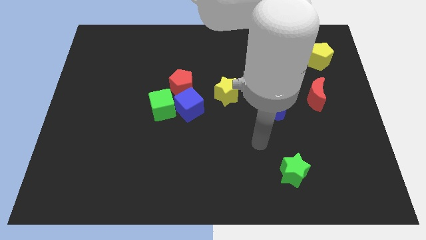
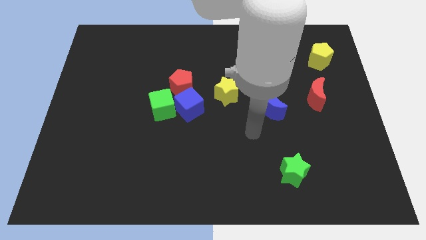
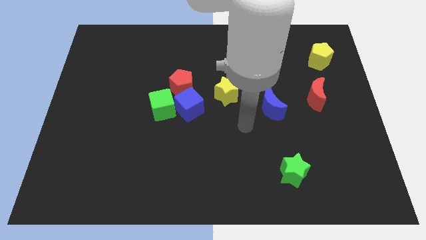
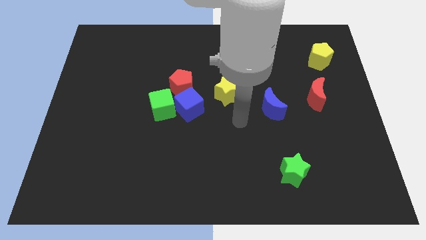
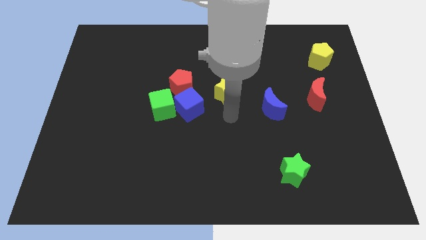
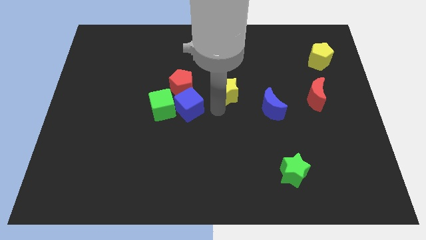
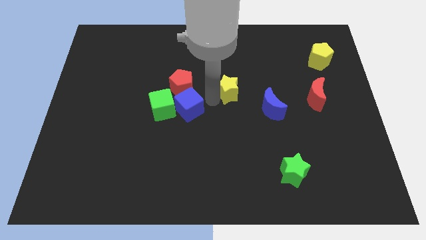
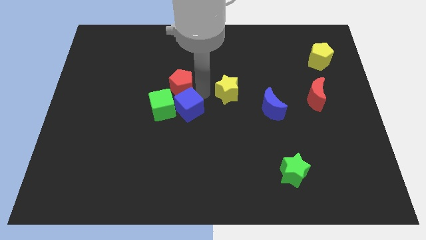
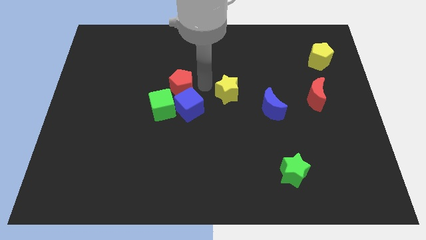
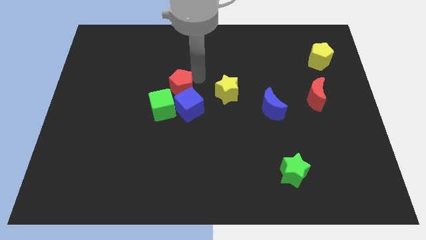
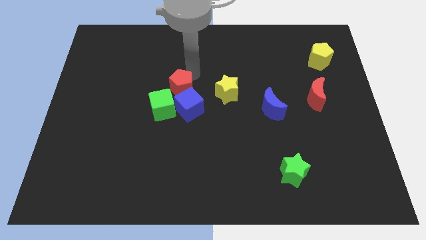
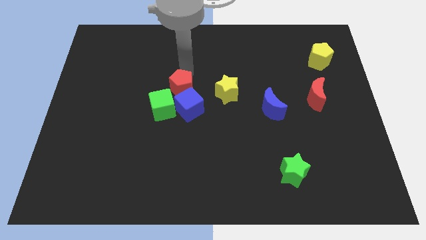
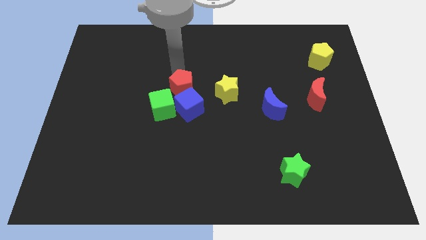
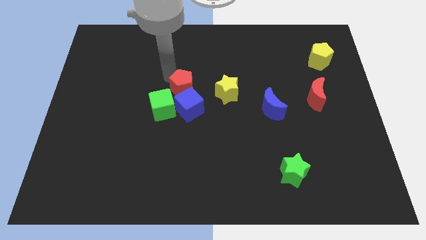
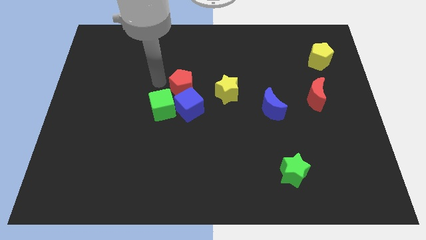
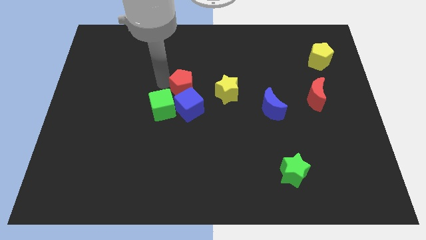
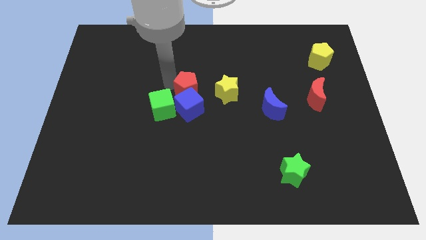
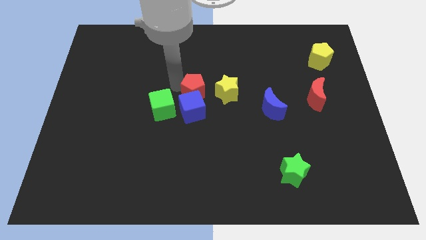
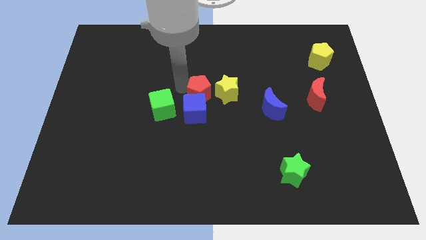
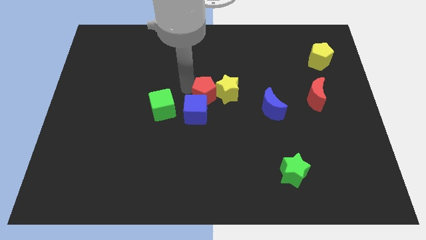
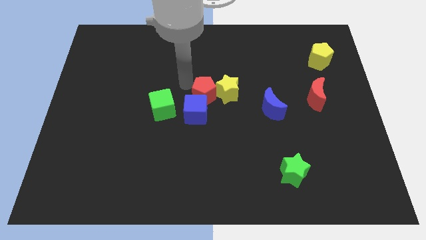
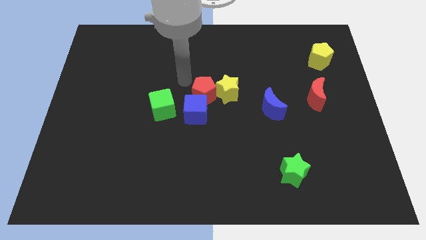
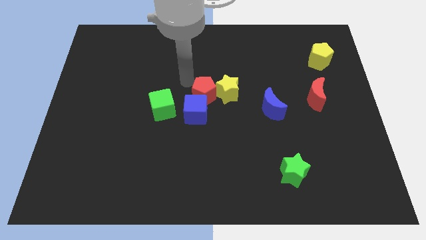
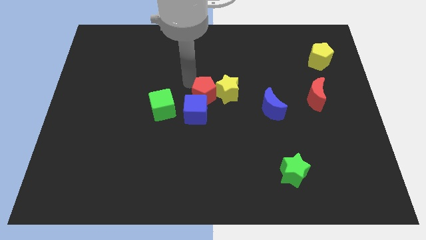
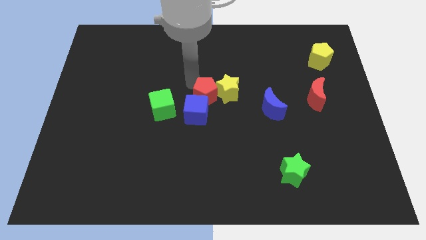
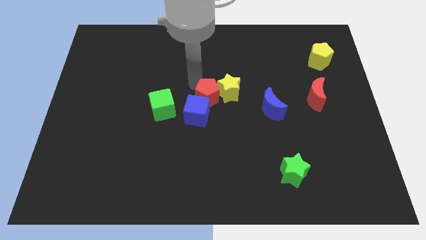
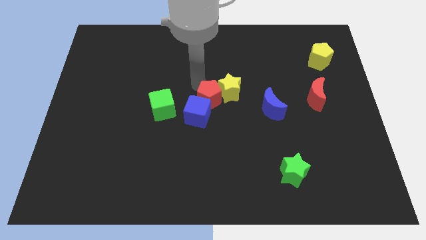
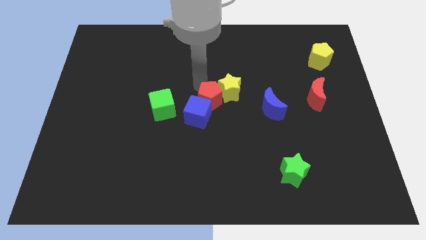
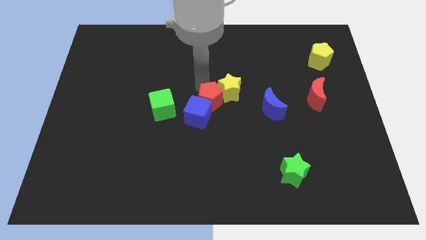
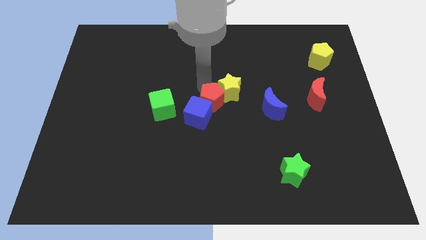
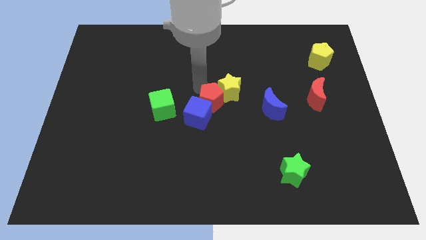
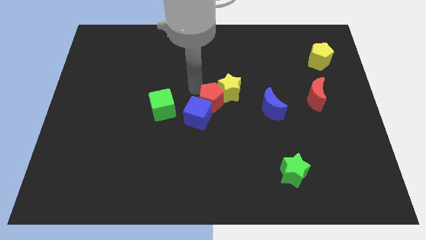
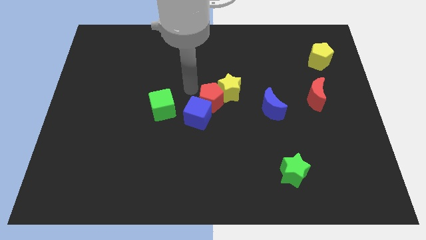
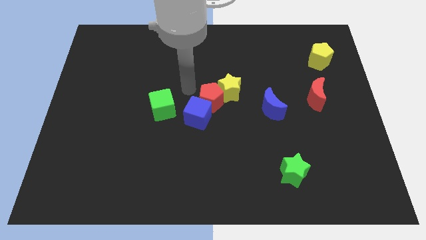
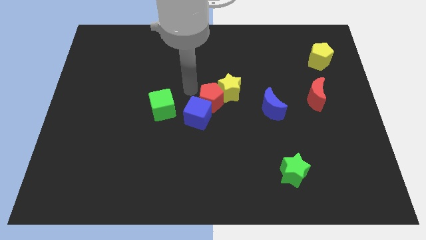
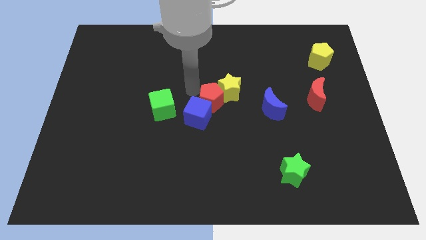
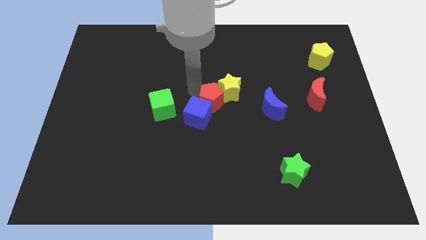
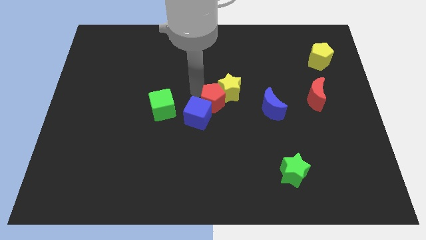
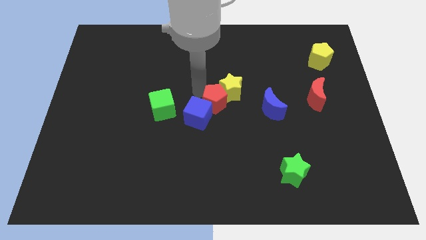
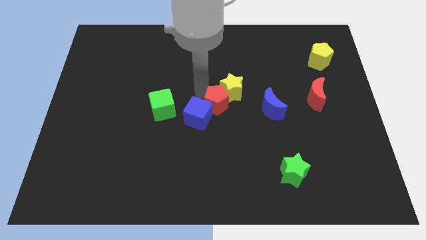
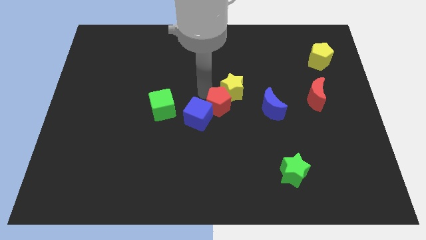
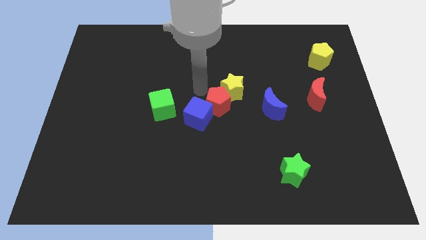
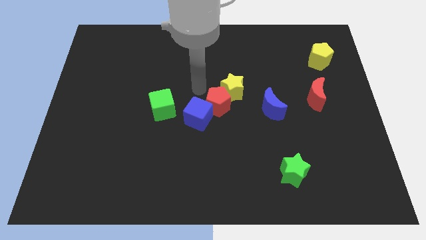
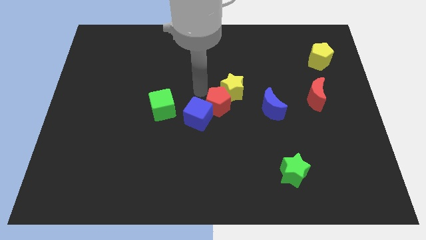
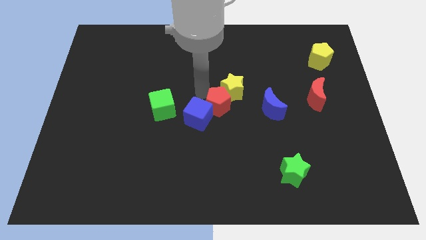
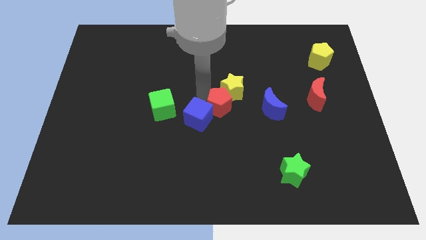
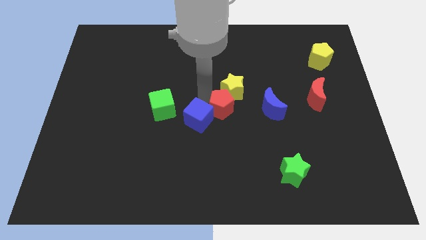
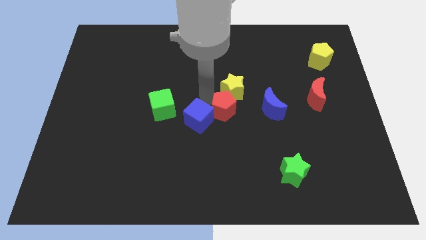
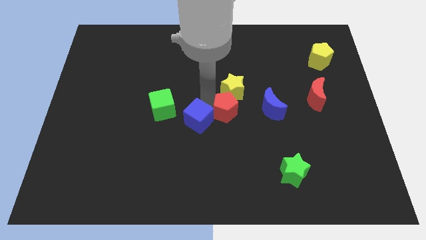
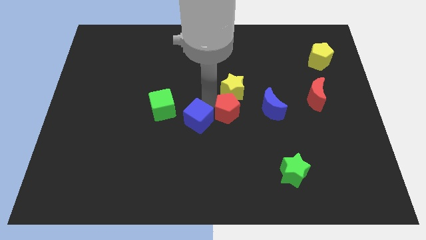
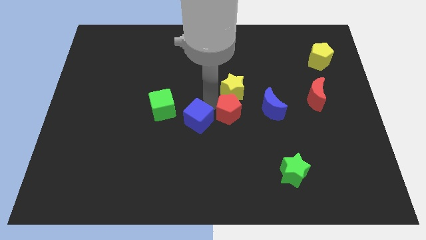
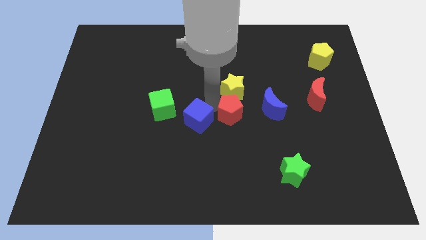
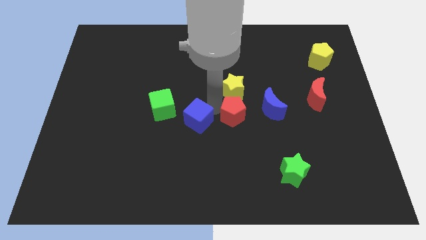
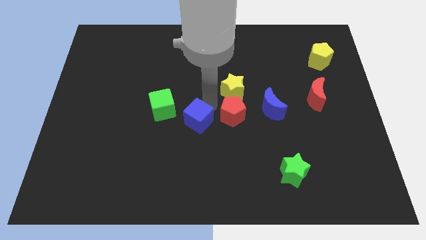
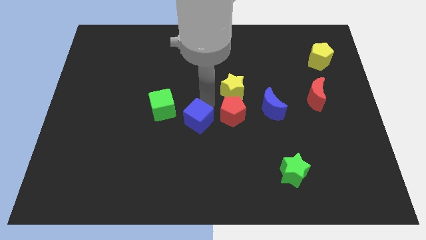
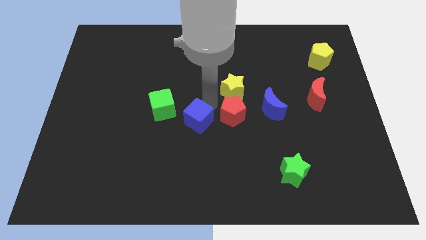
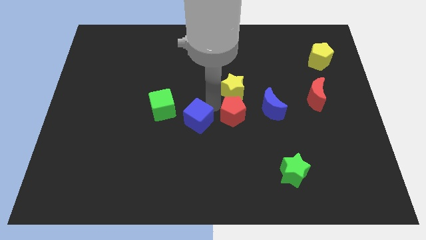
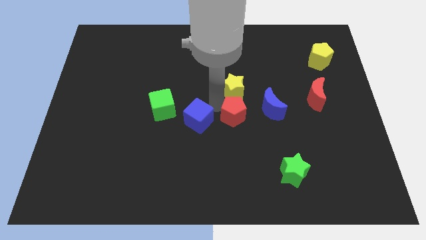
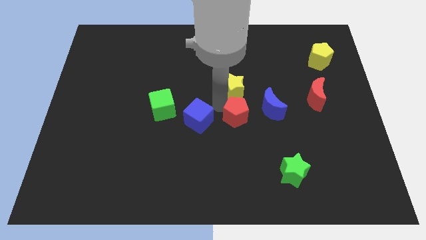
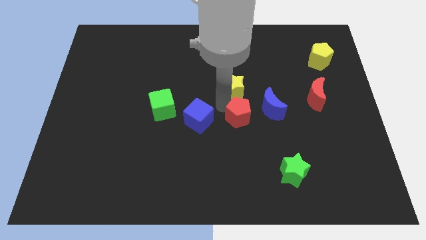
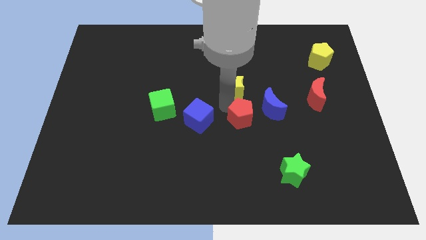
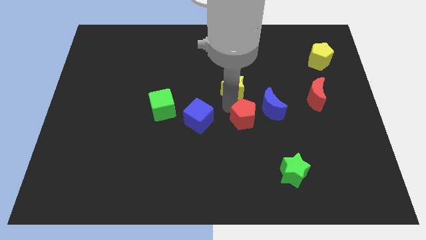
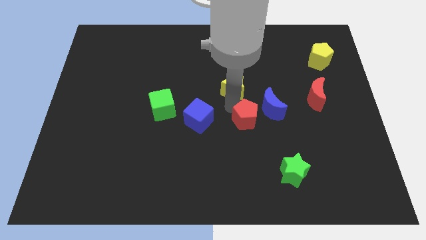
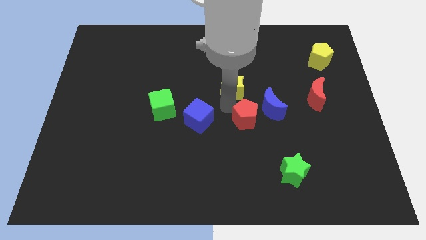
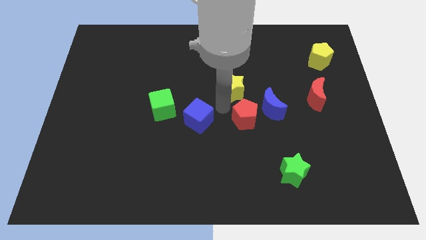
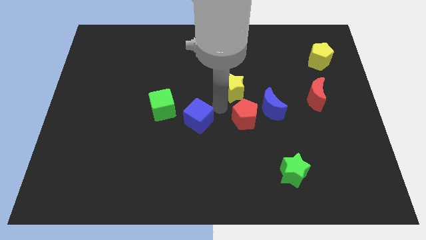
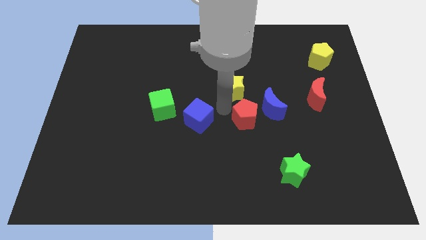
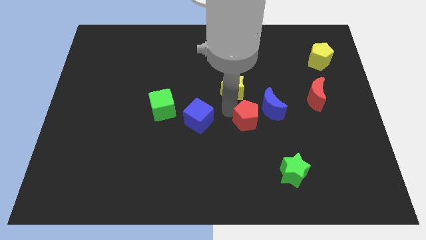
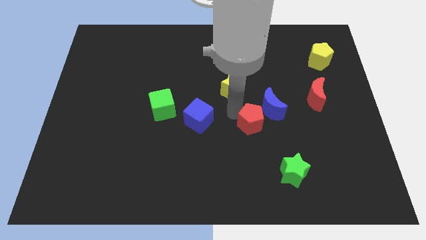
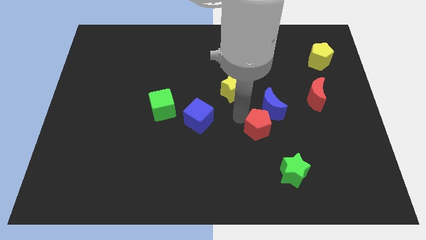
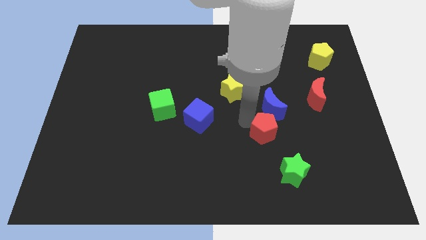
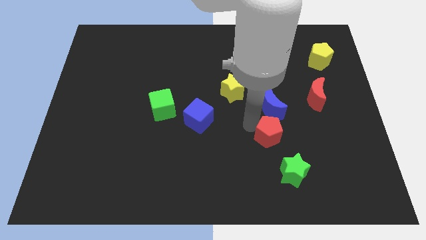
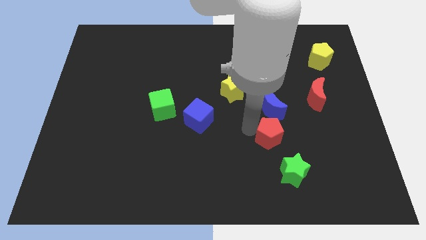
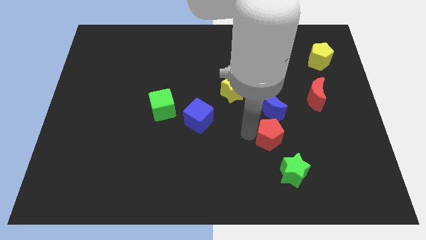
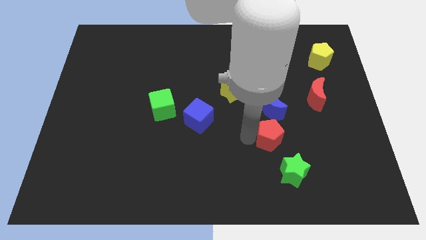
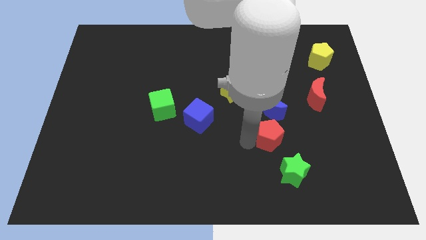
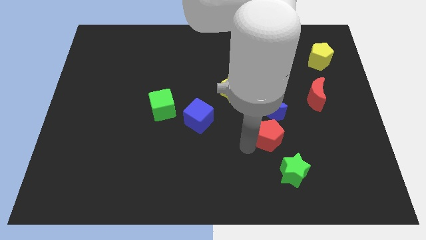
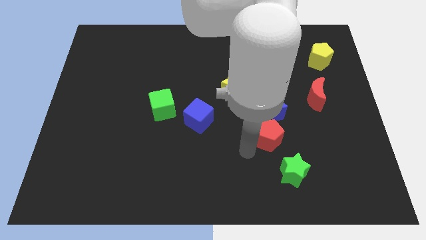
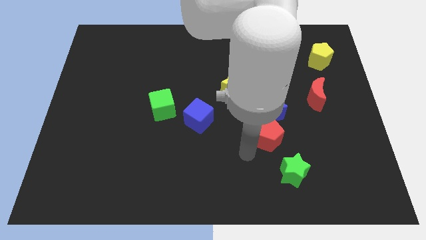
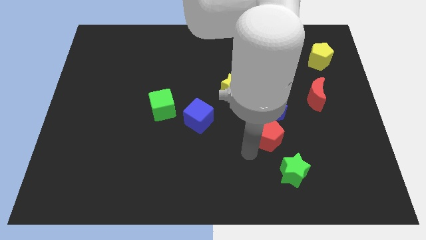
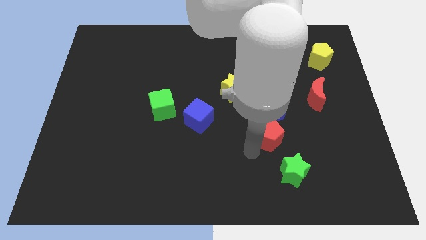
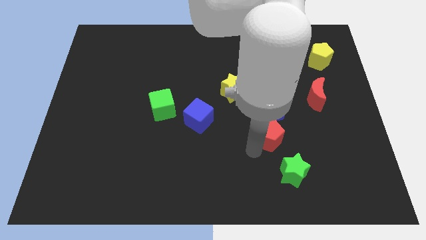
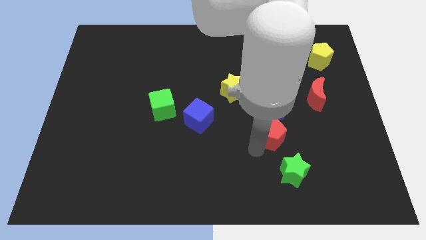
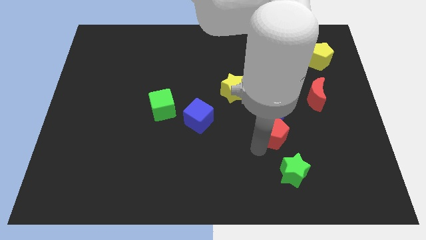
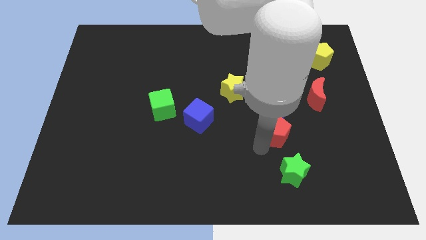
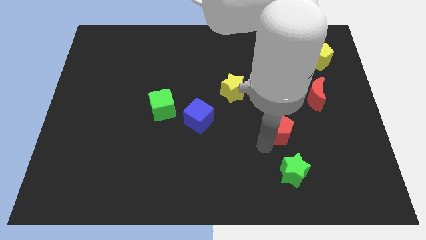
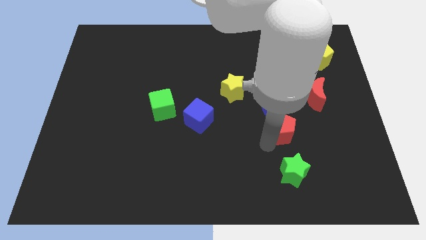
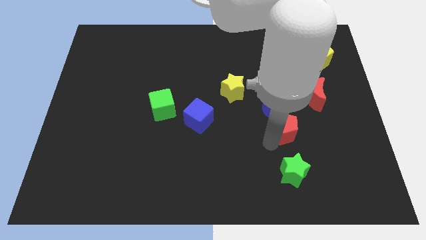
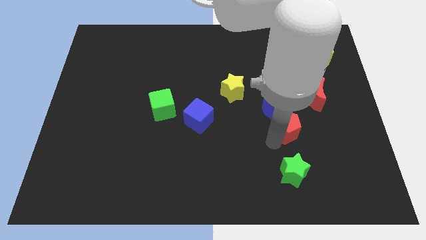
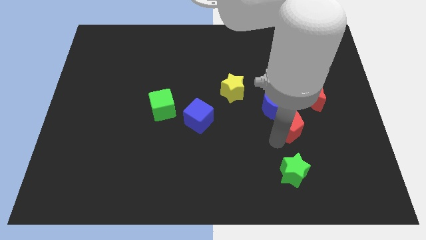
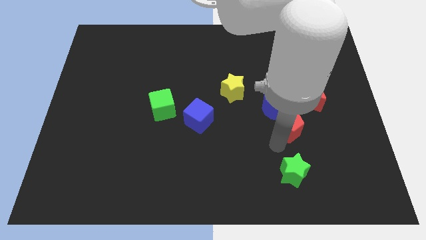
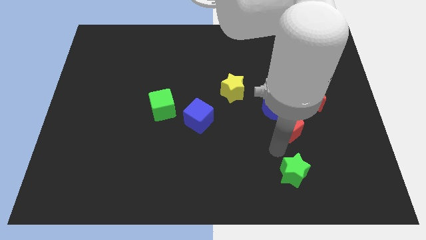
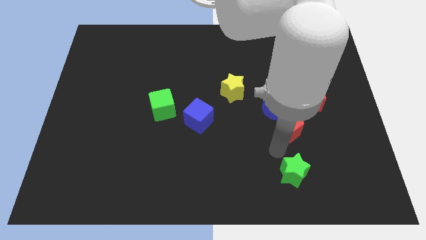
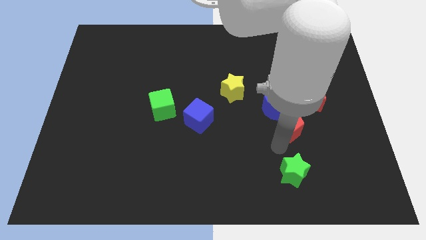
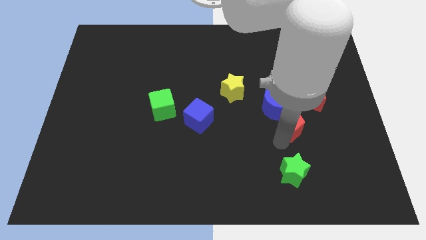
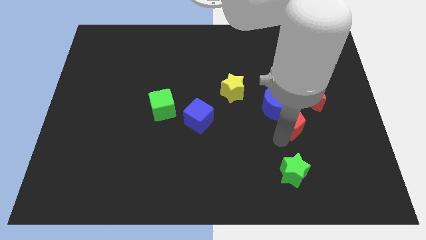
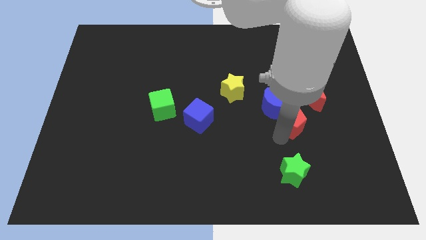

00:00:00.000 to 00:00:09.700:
put the red pentagon right of the blue moon
